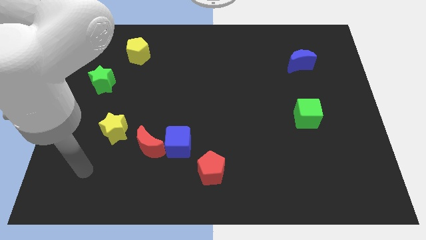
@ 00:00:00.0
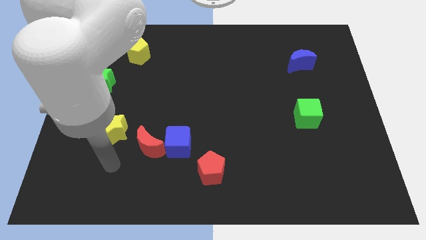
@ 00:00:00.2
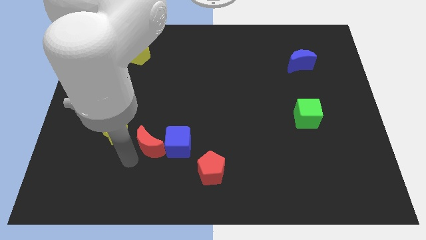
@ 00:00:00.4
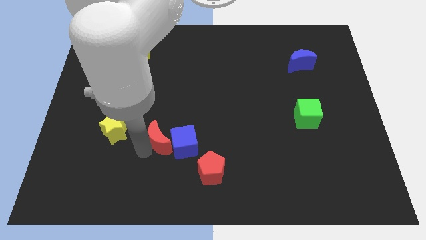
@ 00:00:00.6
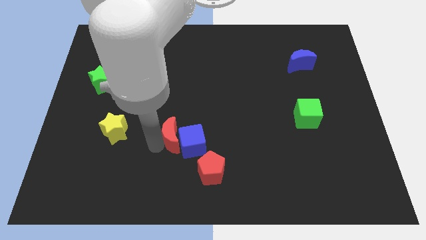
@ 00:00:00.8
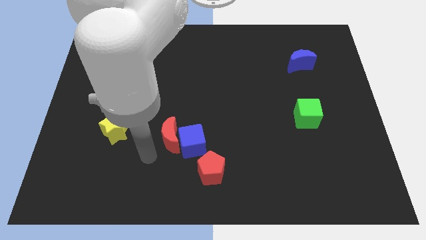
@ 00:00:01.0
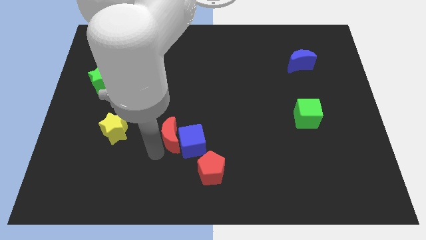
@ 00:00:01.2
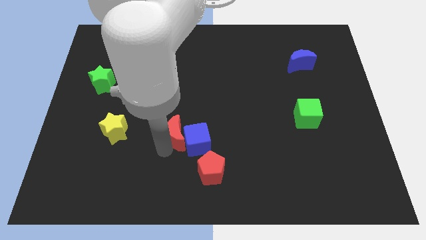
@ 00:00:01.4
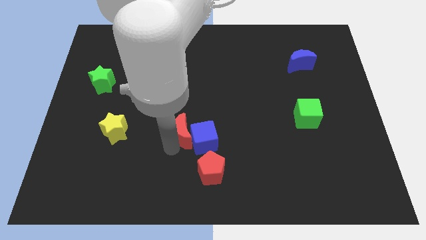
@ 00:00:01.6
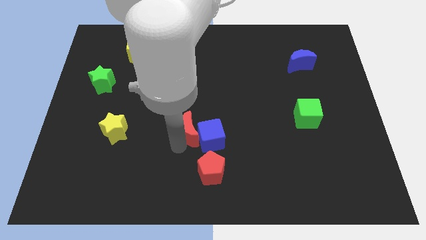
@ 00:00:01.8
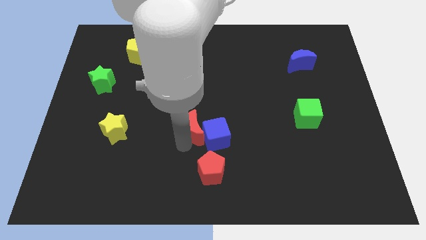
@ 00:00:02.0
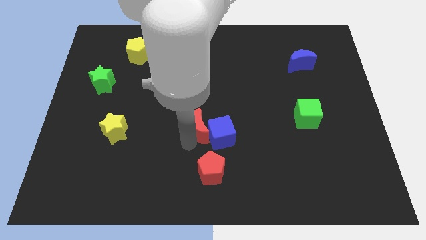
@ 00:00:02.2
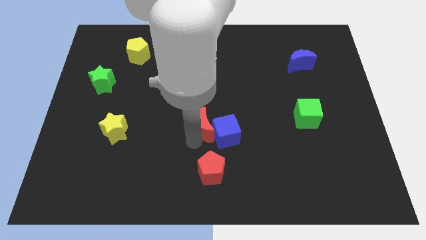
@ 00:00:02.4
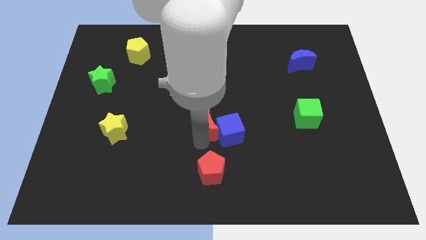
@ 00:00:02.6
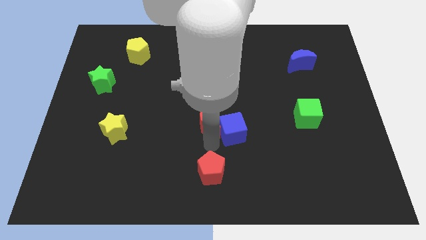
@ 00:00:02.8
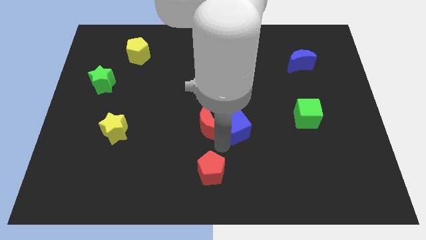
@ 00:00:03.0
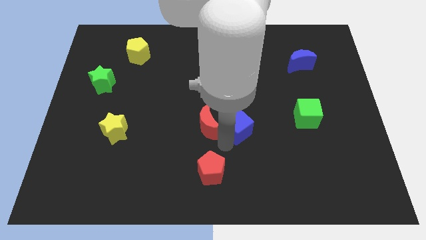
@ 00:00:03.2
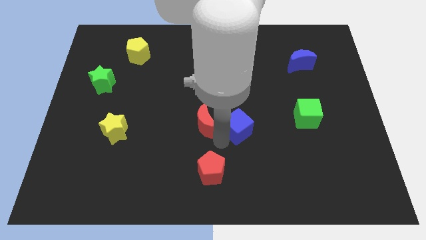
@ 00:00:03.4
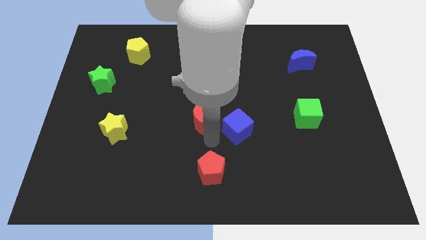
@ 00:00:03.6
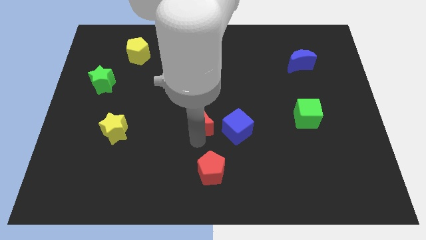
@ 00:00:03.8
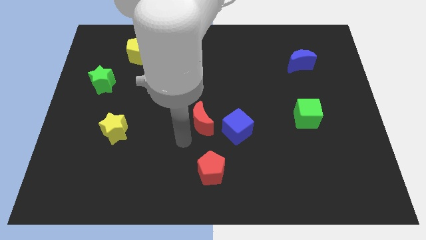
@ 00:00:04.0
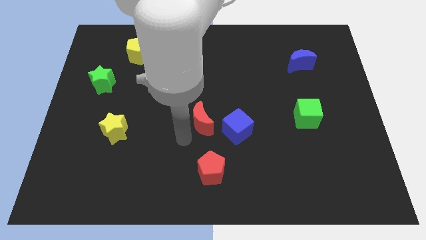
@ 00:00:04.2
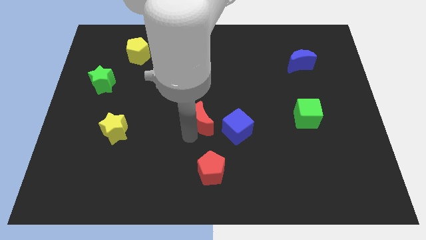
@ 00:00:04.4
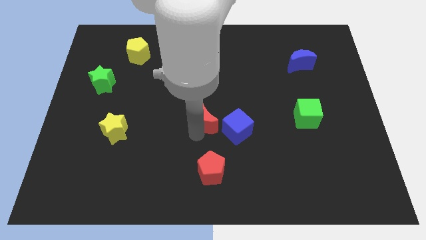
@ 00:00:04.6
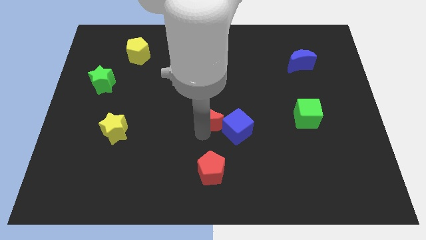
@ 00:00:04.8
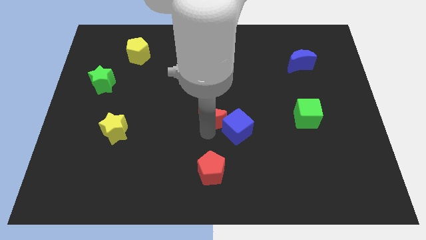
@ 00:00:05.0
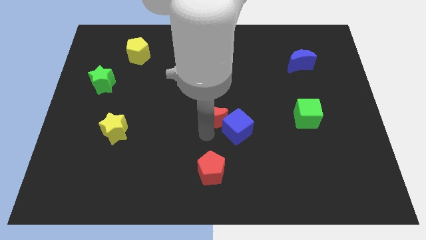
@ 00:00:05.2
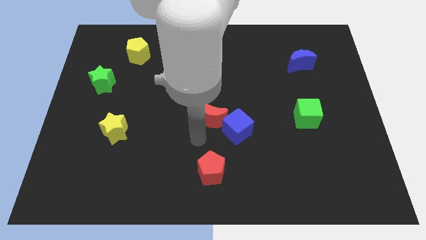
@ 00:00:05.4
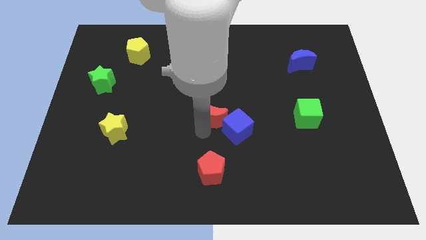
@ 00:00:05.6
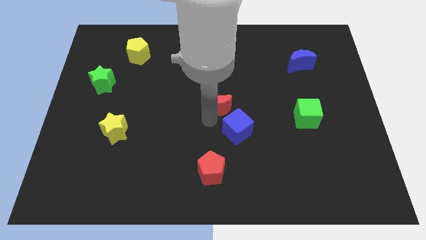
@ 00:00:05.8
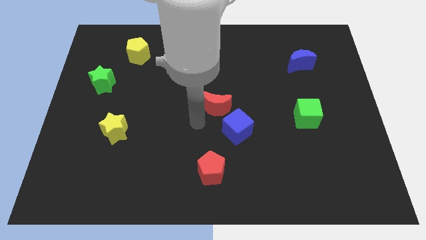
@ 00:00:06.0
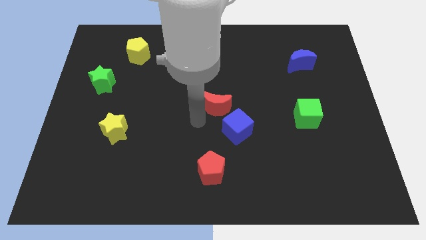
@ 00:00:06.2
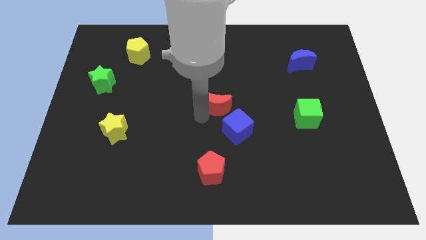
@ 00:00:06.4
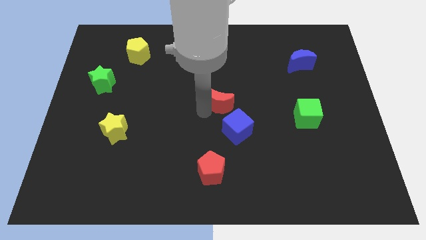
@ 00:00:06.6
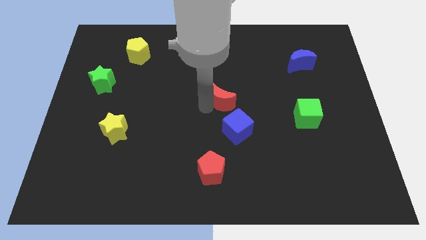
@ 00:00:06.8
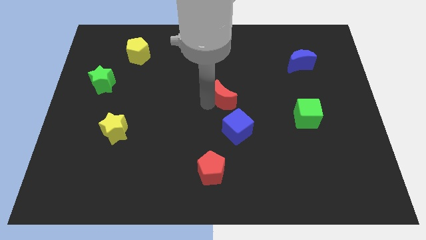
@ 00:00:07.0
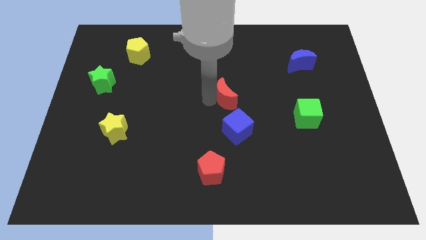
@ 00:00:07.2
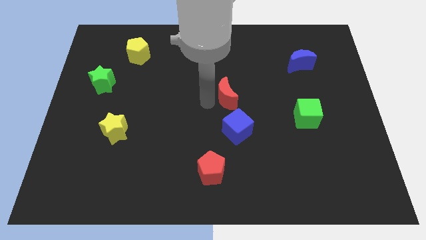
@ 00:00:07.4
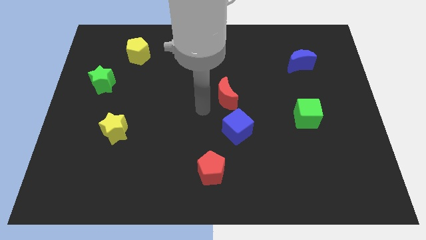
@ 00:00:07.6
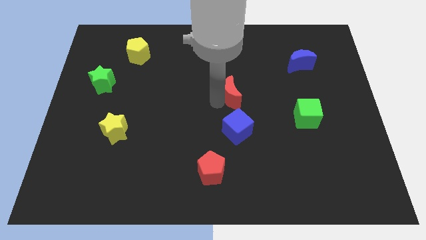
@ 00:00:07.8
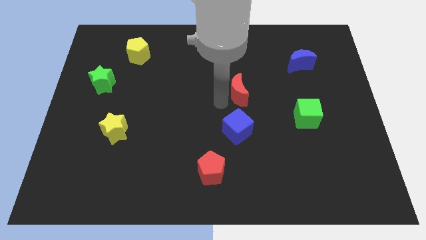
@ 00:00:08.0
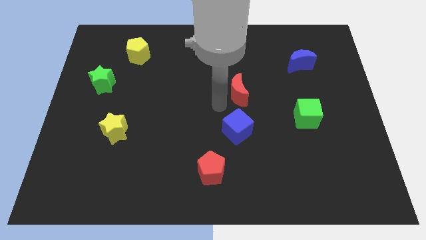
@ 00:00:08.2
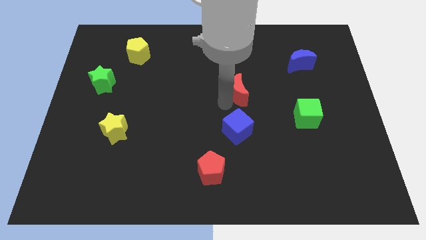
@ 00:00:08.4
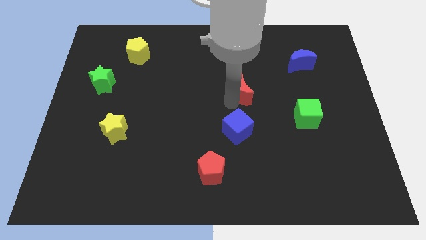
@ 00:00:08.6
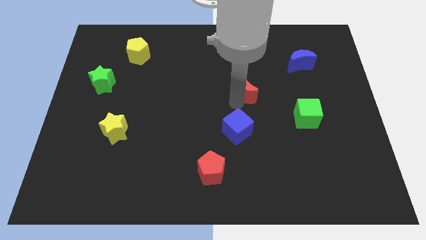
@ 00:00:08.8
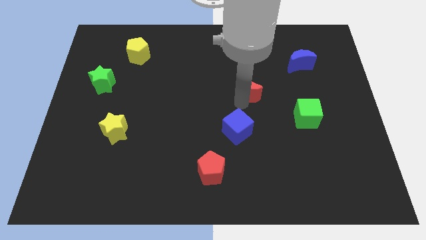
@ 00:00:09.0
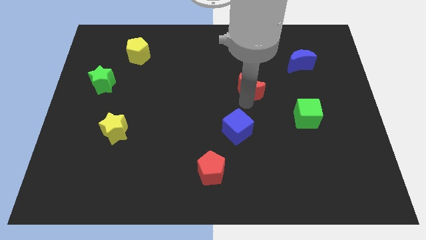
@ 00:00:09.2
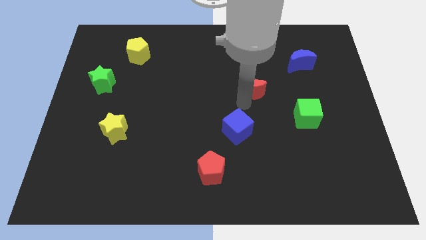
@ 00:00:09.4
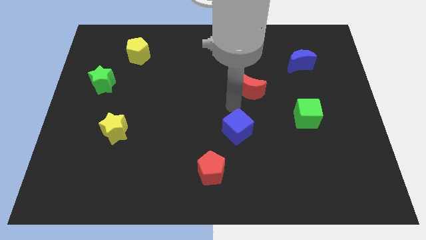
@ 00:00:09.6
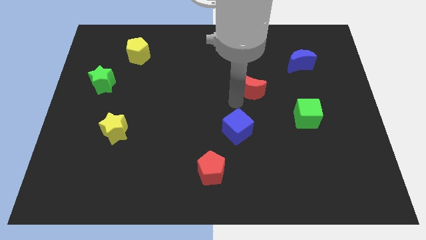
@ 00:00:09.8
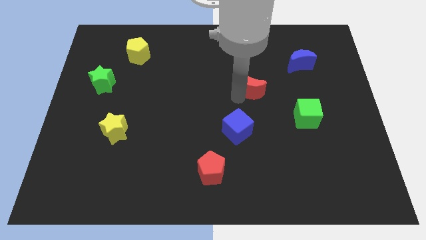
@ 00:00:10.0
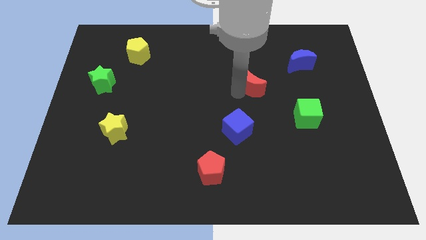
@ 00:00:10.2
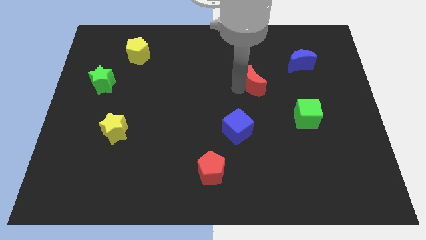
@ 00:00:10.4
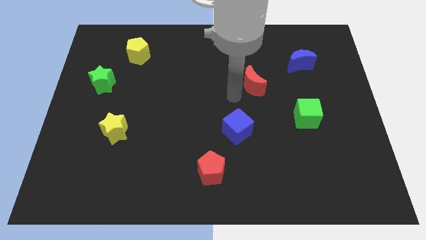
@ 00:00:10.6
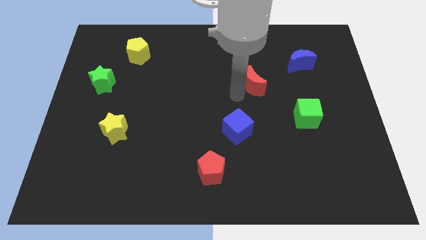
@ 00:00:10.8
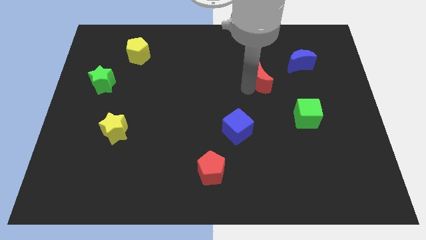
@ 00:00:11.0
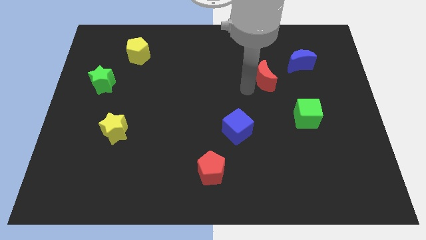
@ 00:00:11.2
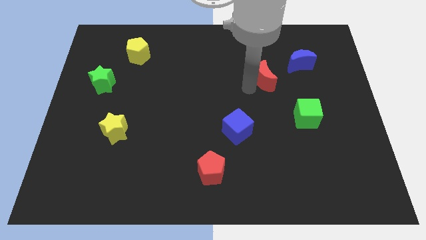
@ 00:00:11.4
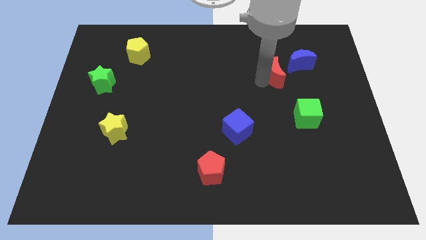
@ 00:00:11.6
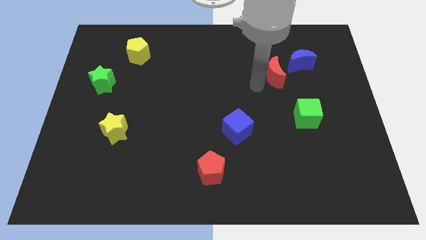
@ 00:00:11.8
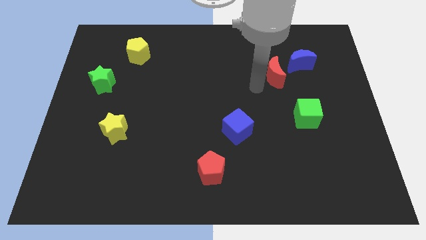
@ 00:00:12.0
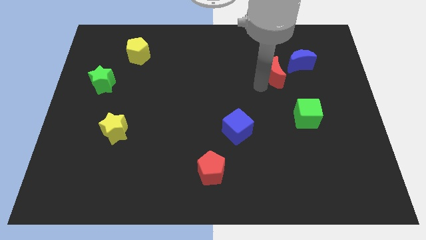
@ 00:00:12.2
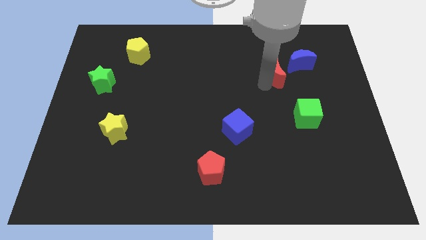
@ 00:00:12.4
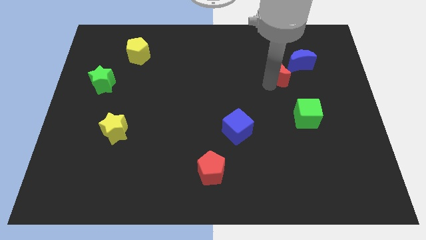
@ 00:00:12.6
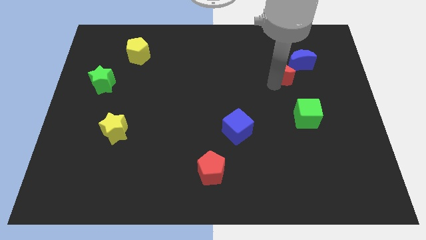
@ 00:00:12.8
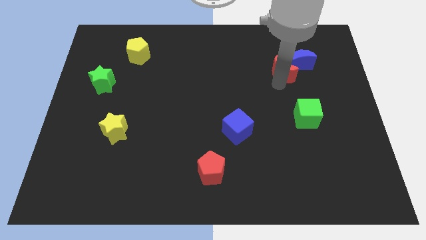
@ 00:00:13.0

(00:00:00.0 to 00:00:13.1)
move the red moon to the blue moon
